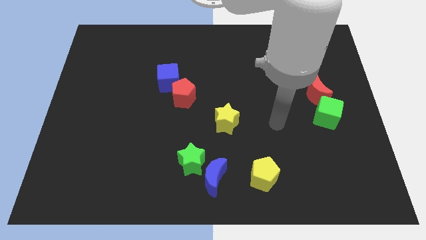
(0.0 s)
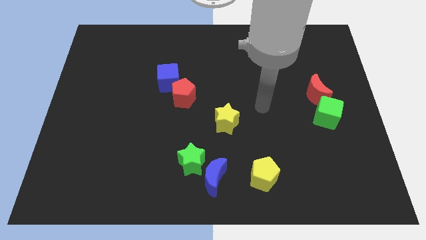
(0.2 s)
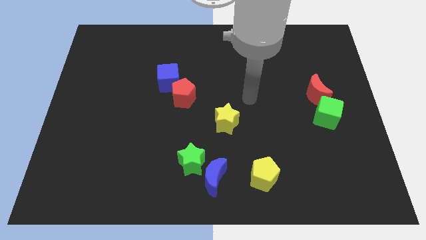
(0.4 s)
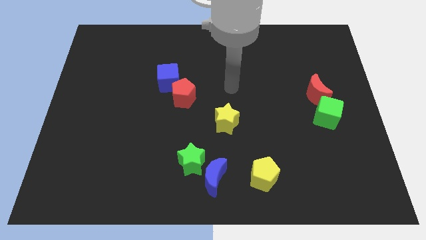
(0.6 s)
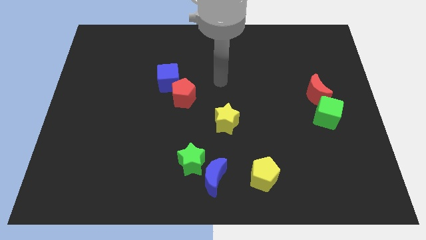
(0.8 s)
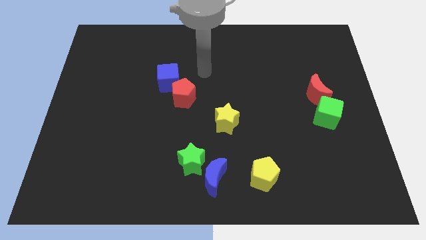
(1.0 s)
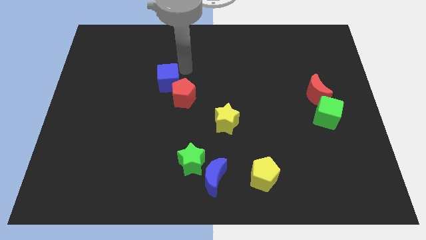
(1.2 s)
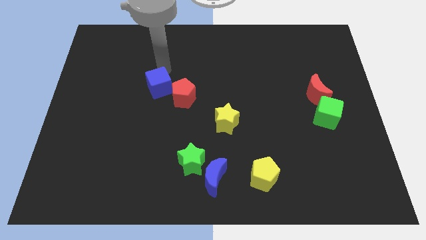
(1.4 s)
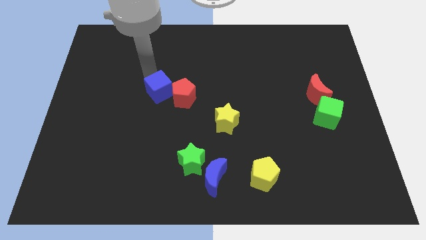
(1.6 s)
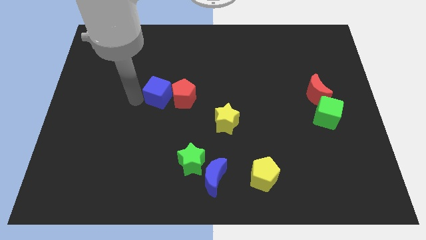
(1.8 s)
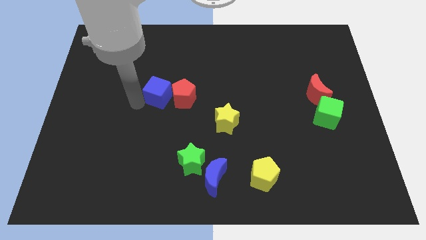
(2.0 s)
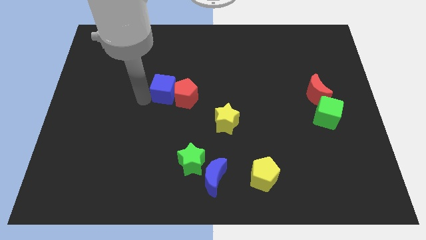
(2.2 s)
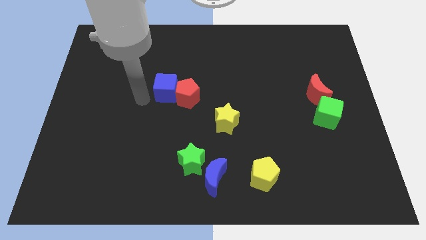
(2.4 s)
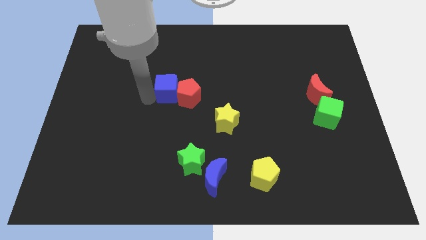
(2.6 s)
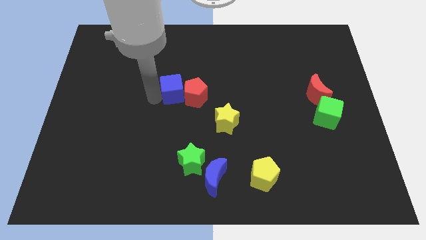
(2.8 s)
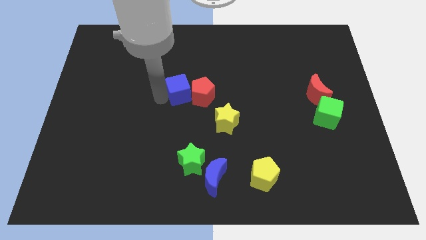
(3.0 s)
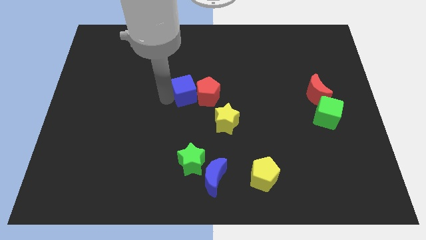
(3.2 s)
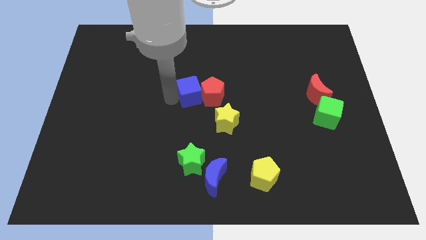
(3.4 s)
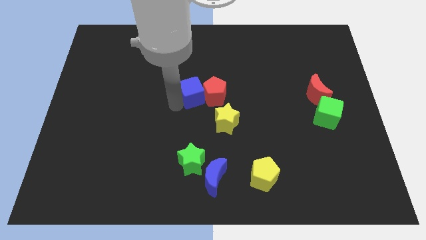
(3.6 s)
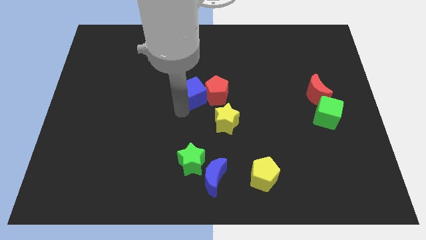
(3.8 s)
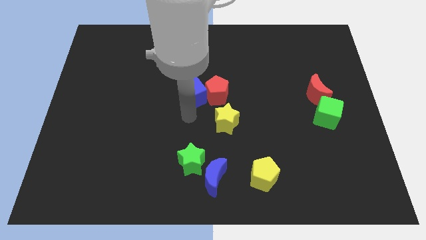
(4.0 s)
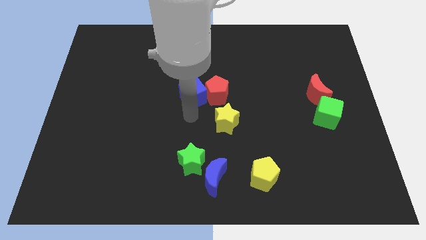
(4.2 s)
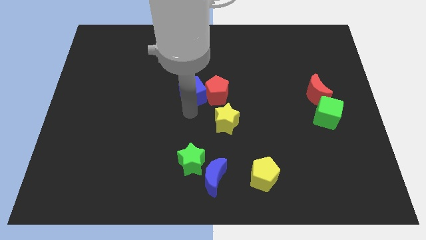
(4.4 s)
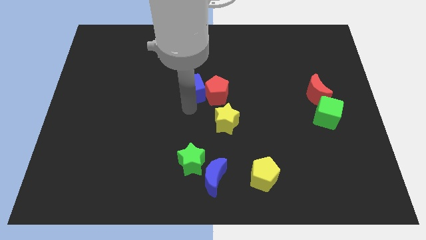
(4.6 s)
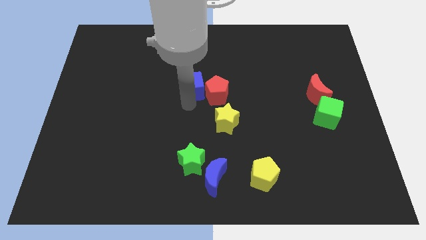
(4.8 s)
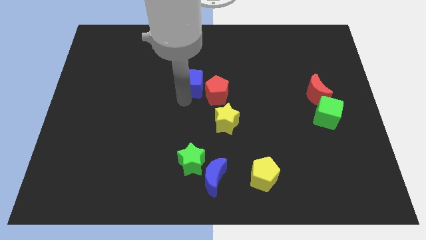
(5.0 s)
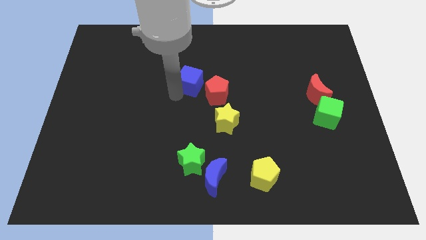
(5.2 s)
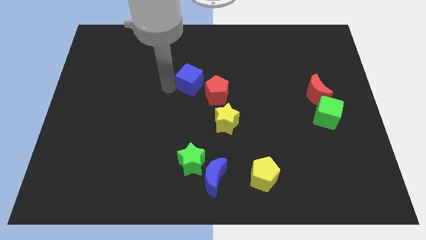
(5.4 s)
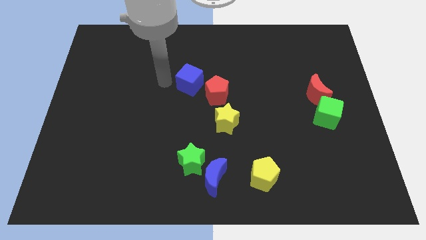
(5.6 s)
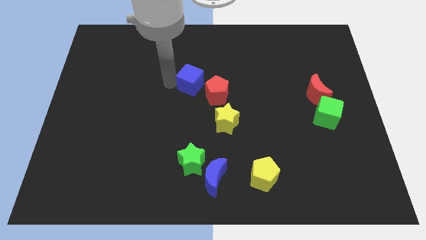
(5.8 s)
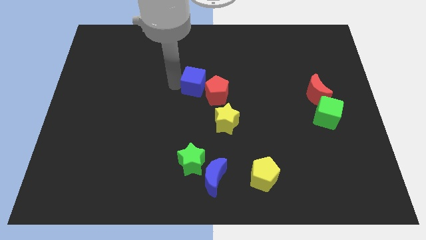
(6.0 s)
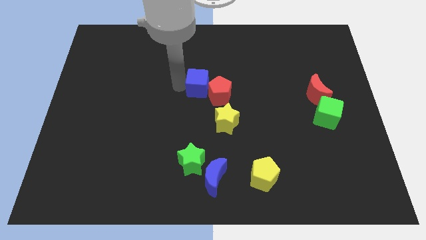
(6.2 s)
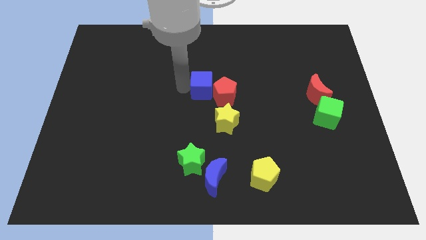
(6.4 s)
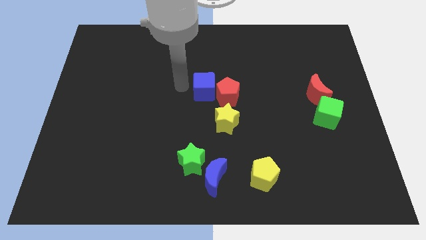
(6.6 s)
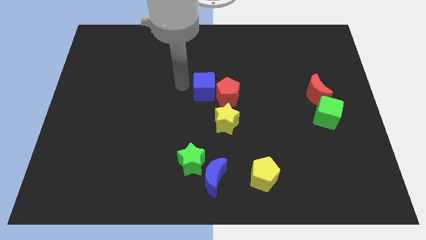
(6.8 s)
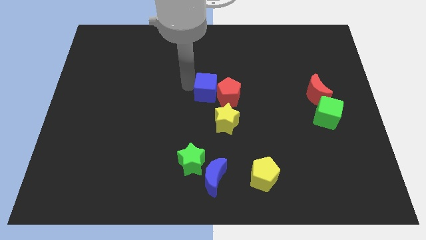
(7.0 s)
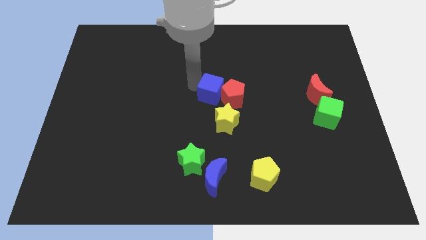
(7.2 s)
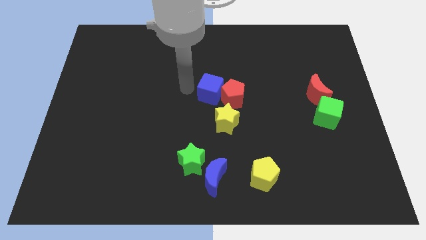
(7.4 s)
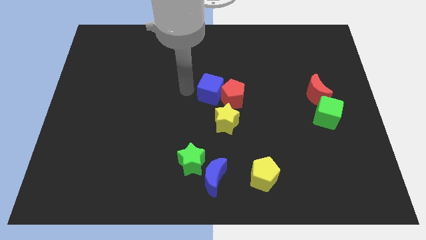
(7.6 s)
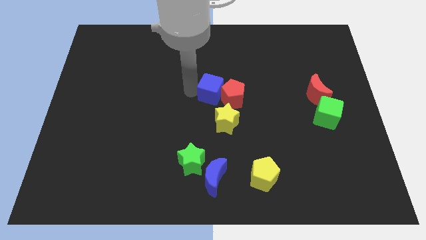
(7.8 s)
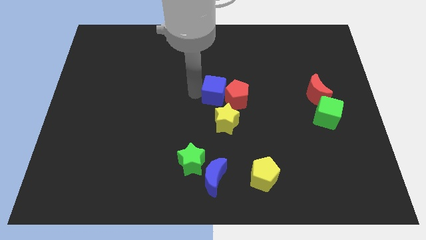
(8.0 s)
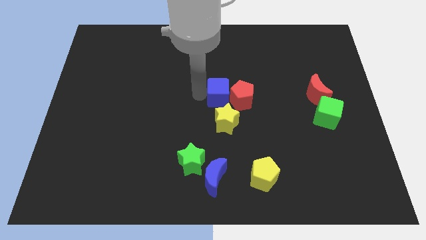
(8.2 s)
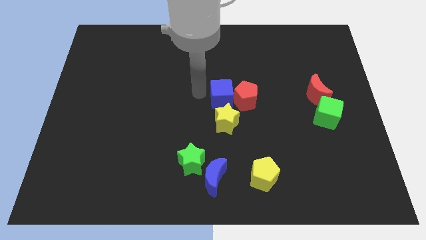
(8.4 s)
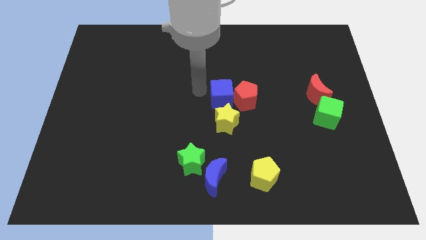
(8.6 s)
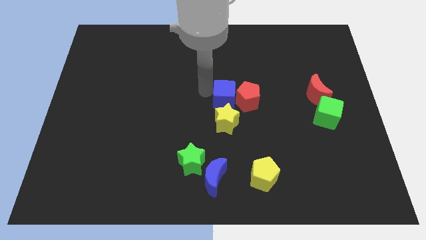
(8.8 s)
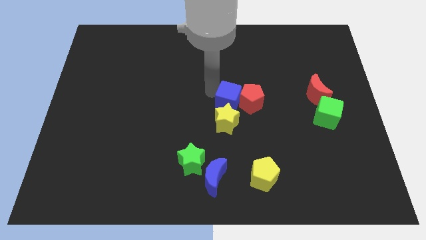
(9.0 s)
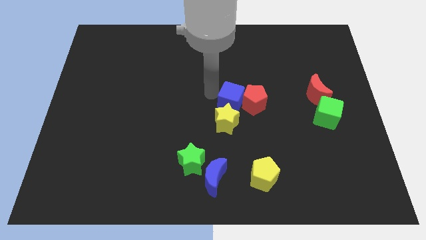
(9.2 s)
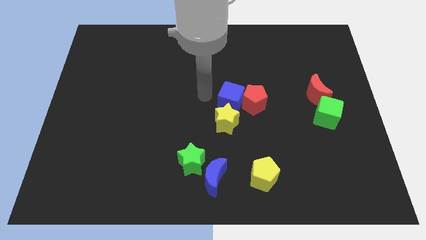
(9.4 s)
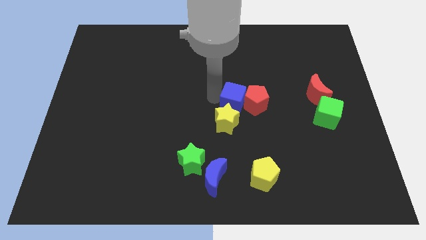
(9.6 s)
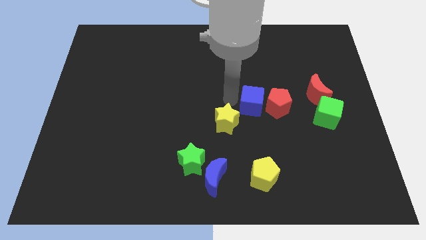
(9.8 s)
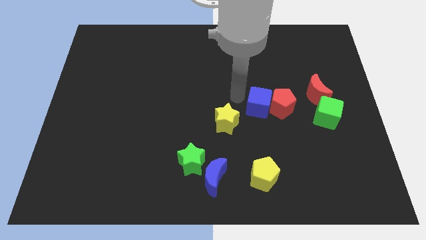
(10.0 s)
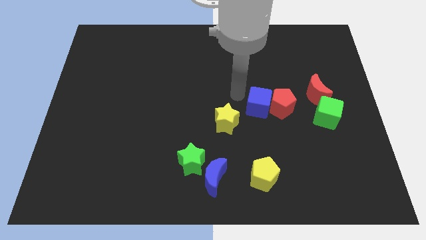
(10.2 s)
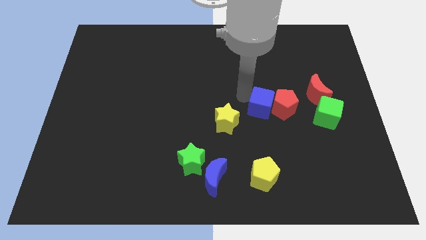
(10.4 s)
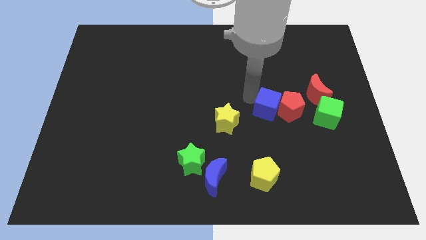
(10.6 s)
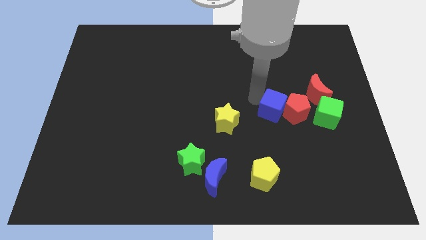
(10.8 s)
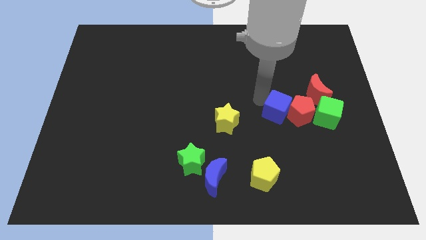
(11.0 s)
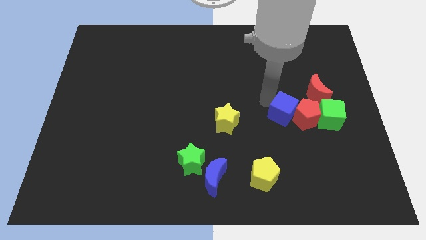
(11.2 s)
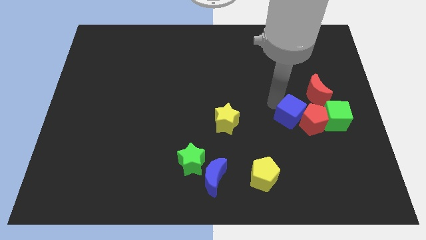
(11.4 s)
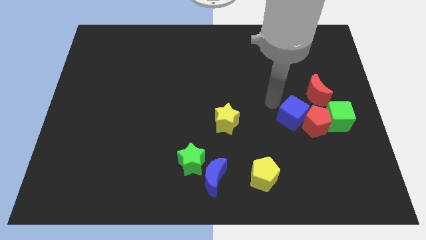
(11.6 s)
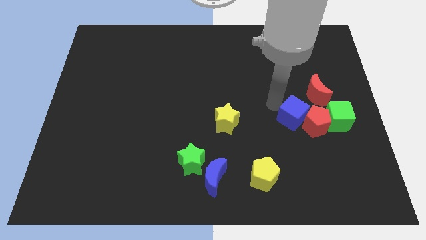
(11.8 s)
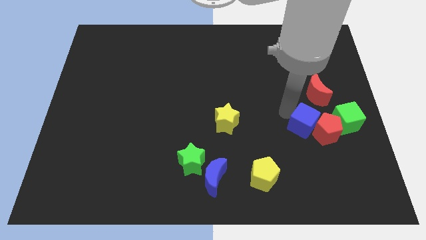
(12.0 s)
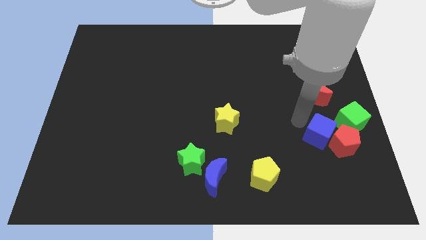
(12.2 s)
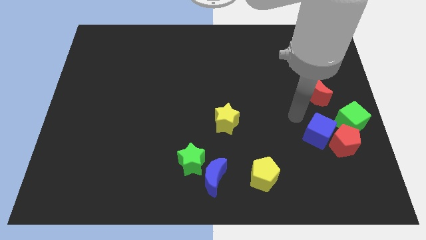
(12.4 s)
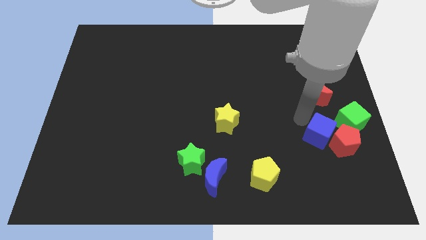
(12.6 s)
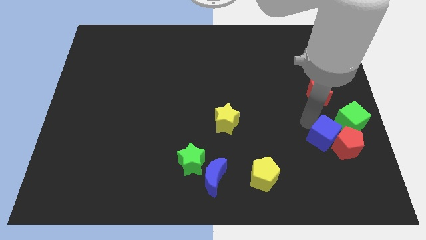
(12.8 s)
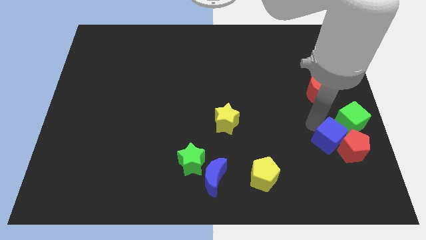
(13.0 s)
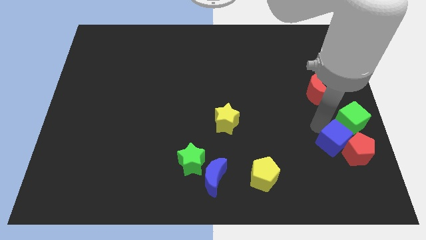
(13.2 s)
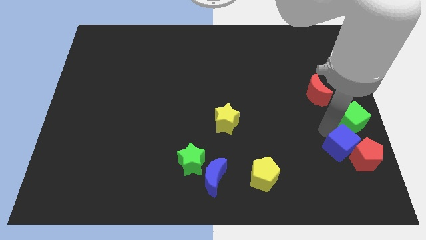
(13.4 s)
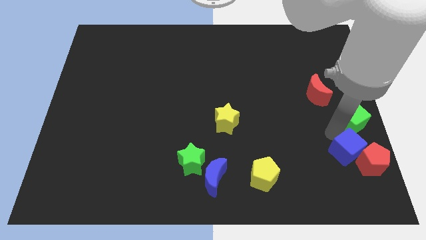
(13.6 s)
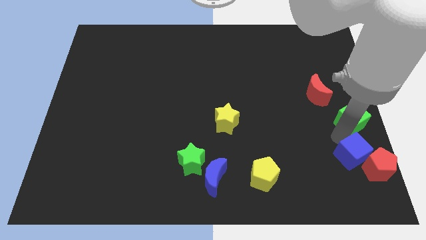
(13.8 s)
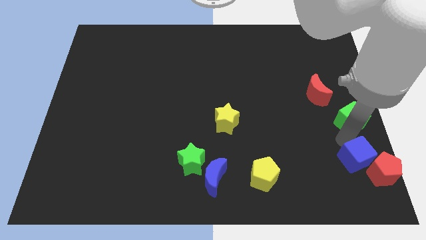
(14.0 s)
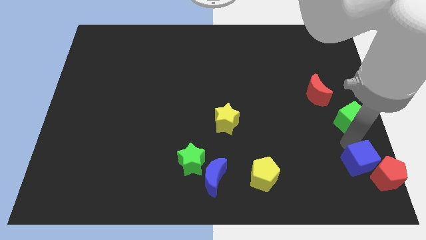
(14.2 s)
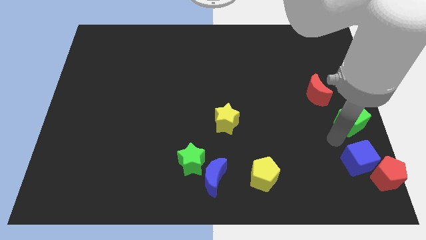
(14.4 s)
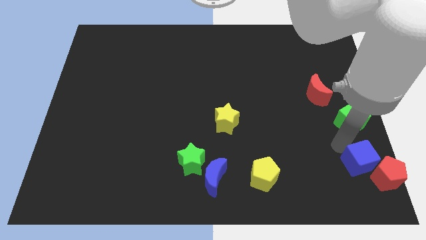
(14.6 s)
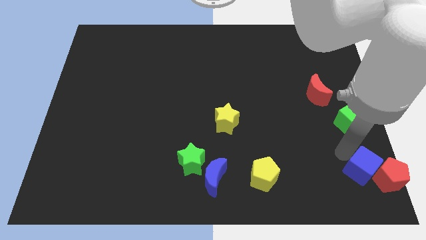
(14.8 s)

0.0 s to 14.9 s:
slide the blue cube to the bottom right of the board
